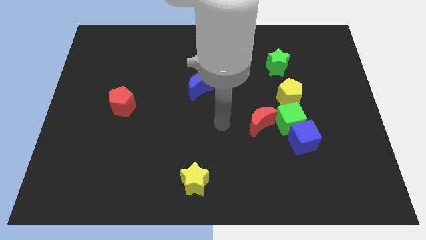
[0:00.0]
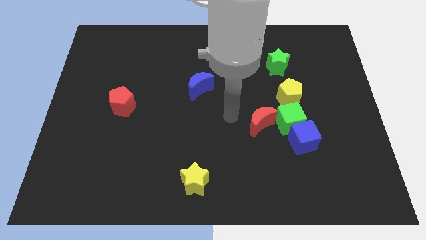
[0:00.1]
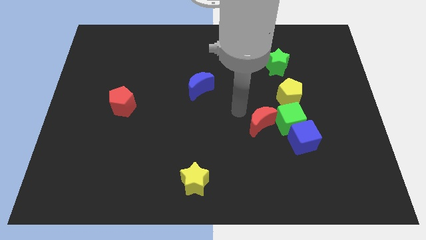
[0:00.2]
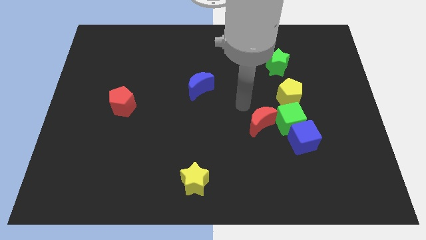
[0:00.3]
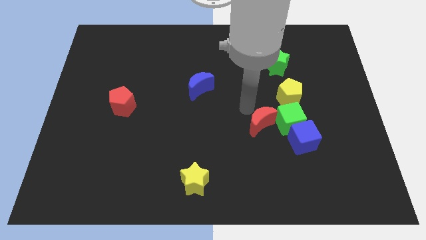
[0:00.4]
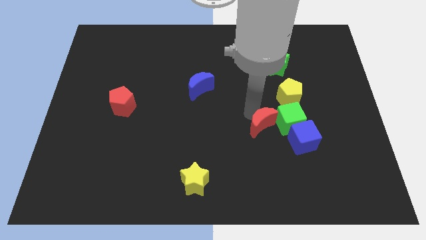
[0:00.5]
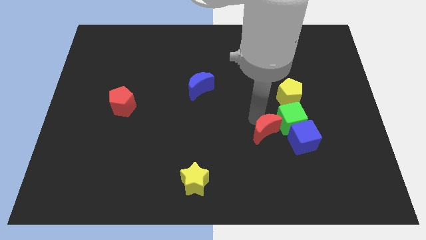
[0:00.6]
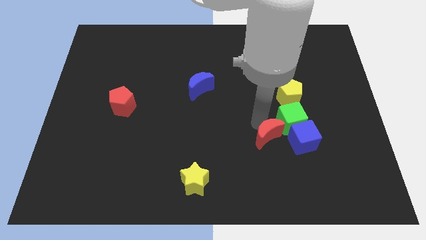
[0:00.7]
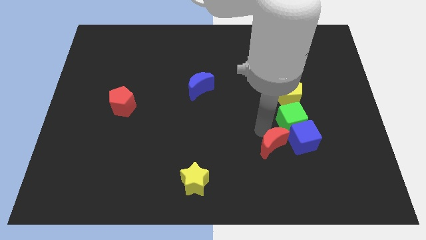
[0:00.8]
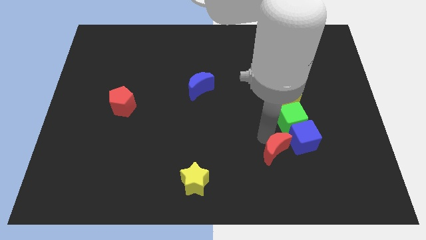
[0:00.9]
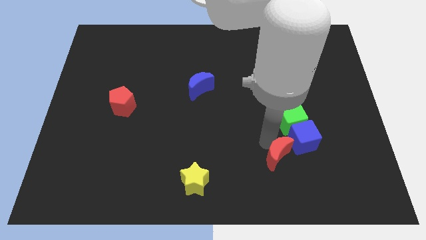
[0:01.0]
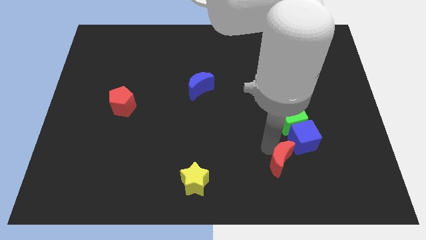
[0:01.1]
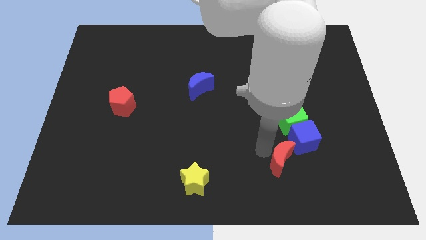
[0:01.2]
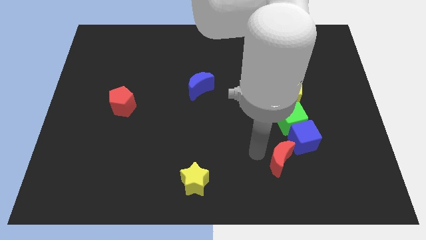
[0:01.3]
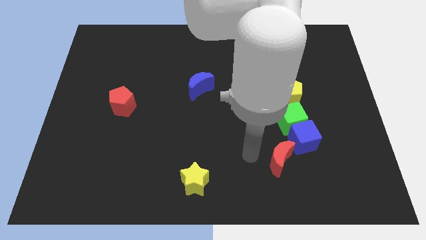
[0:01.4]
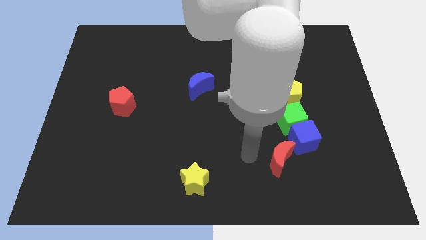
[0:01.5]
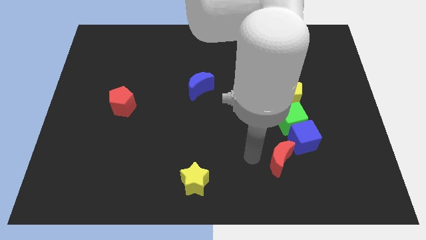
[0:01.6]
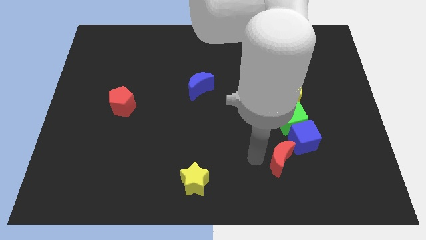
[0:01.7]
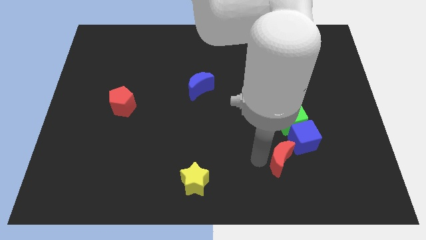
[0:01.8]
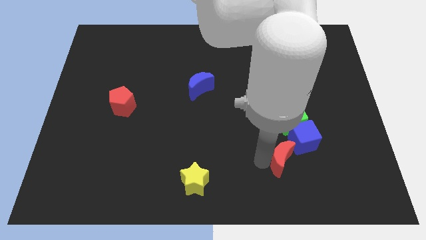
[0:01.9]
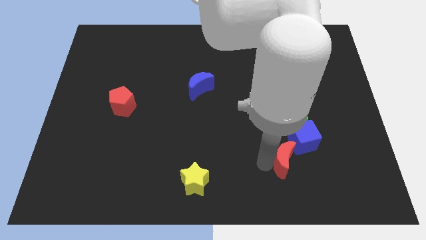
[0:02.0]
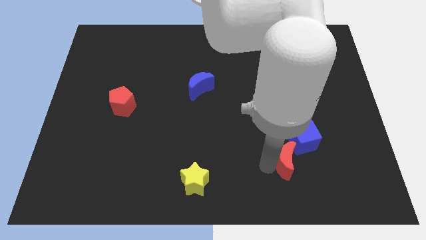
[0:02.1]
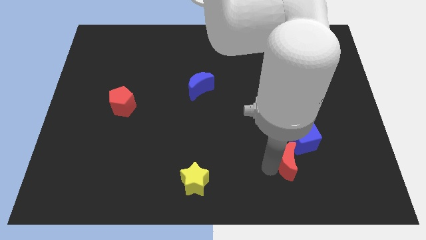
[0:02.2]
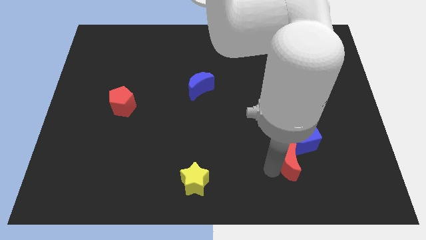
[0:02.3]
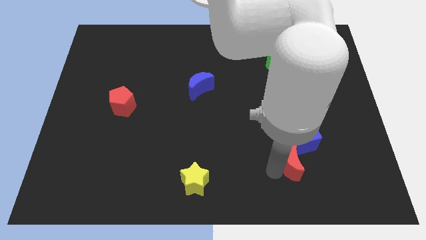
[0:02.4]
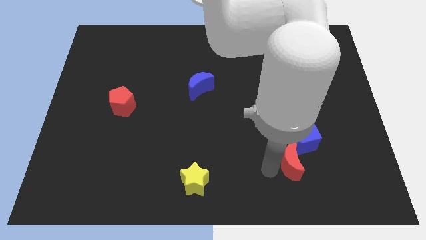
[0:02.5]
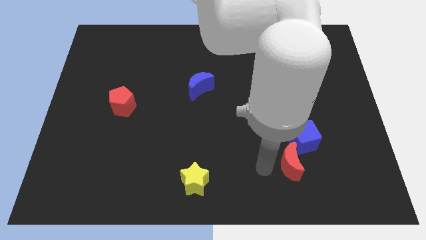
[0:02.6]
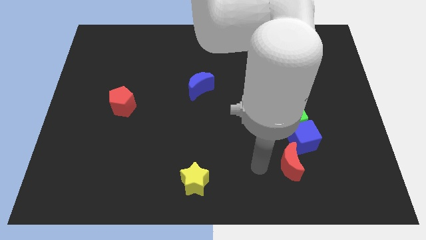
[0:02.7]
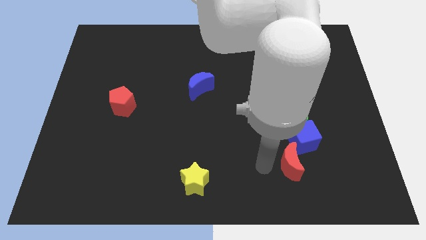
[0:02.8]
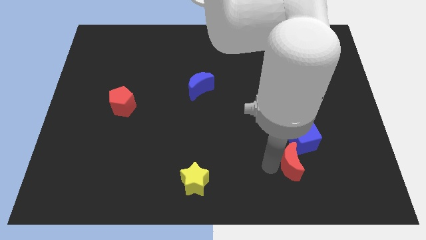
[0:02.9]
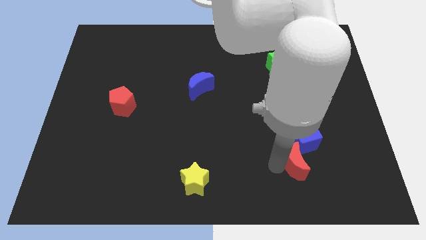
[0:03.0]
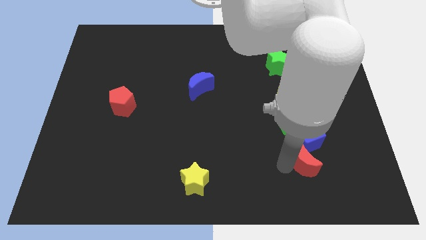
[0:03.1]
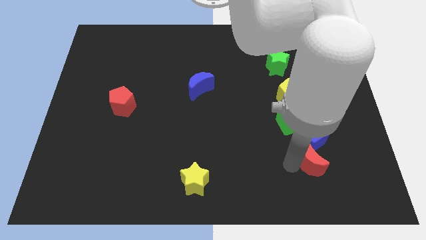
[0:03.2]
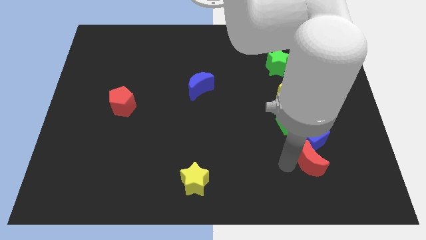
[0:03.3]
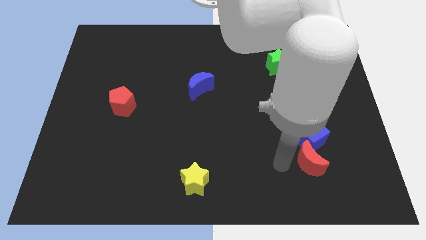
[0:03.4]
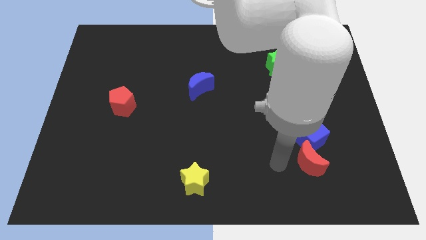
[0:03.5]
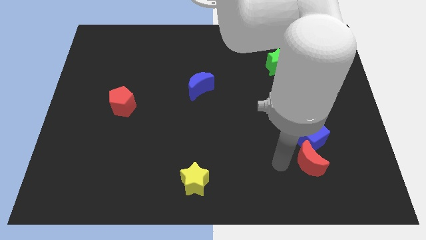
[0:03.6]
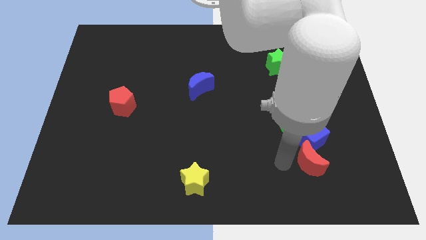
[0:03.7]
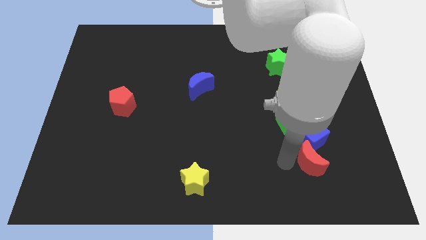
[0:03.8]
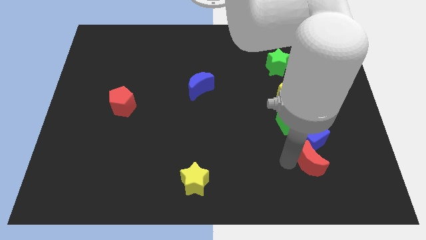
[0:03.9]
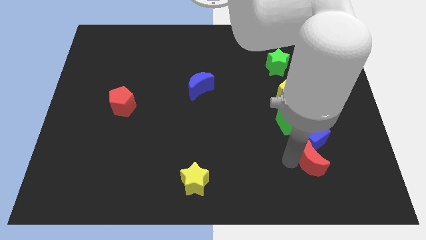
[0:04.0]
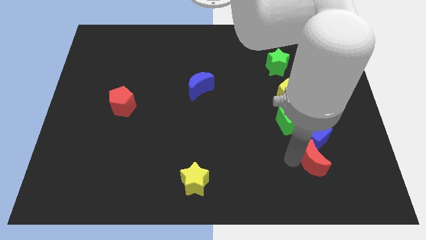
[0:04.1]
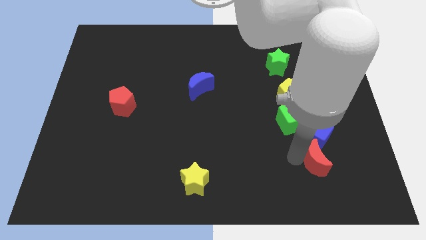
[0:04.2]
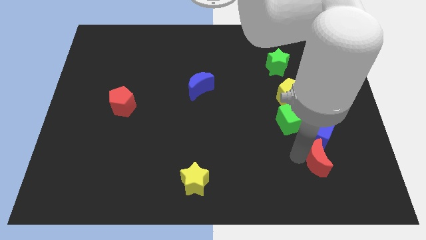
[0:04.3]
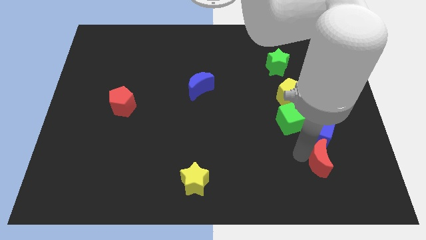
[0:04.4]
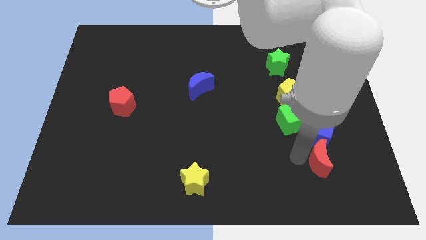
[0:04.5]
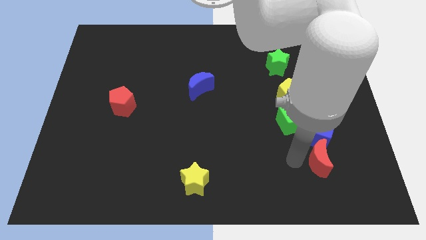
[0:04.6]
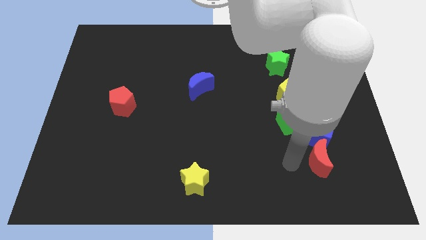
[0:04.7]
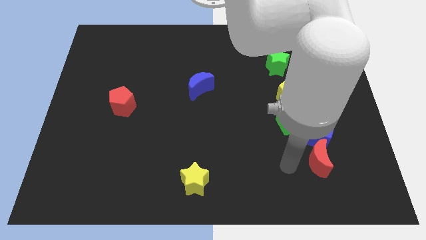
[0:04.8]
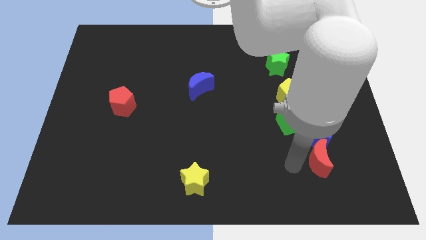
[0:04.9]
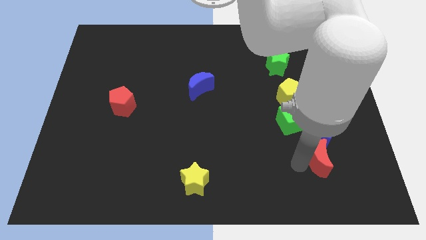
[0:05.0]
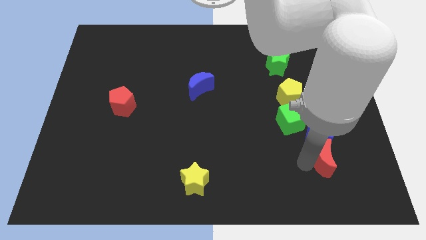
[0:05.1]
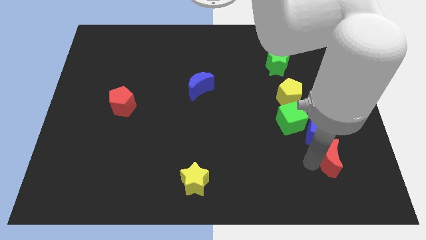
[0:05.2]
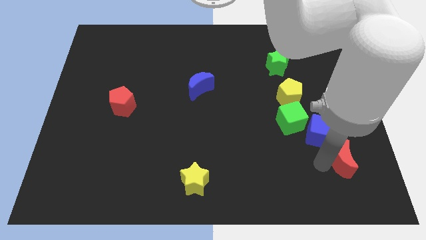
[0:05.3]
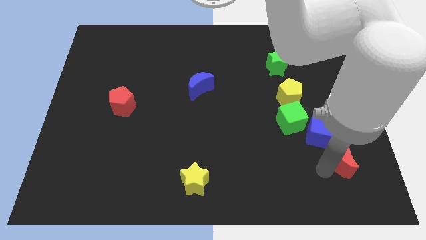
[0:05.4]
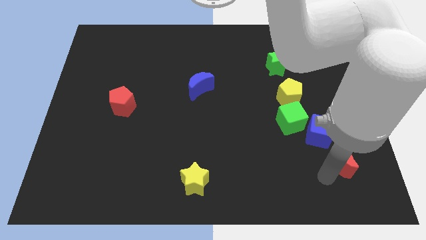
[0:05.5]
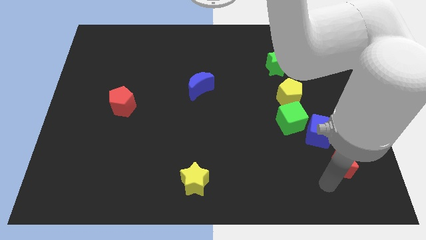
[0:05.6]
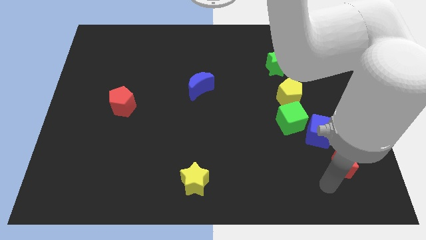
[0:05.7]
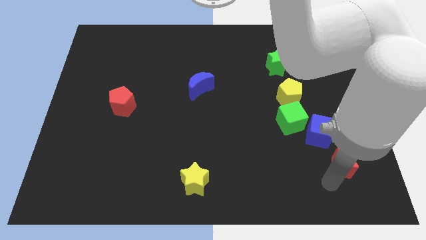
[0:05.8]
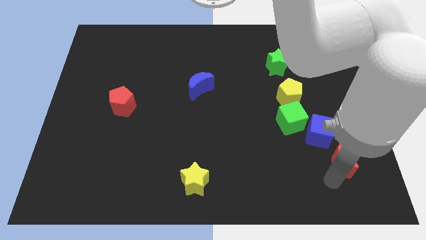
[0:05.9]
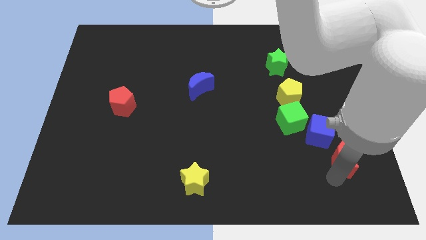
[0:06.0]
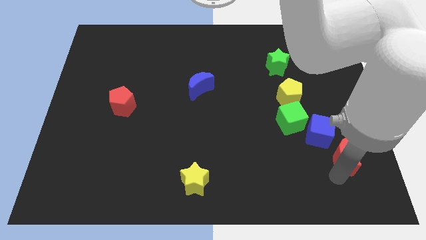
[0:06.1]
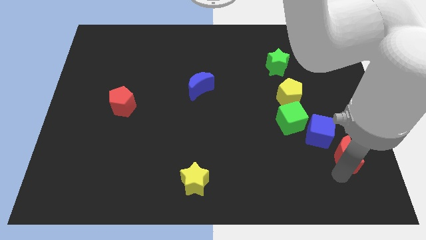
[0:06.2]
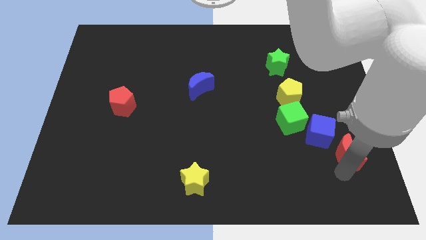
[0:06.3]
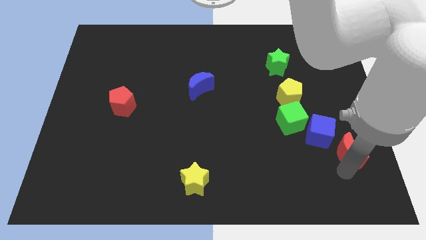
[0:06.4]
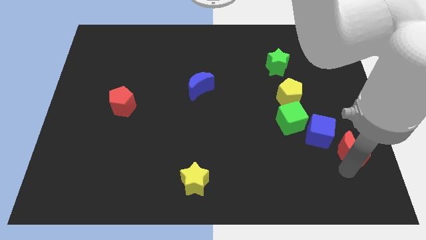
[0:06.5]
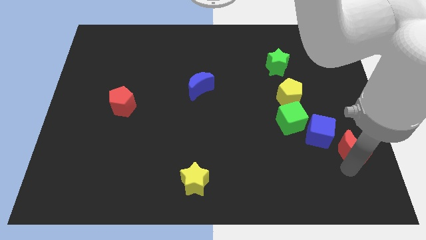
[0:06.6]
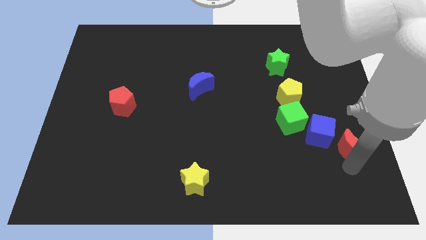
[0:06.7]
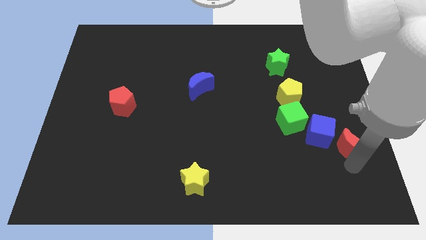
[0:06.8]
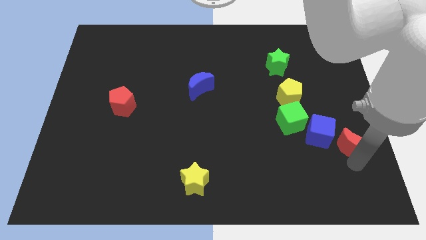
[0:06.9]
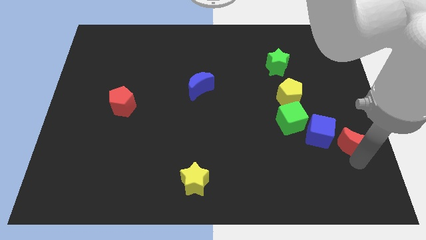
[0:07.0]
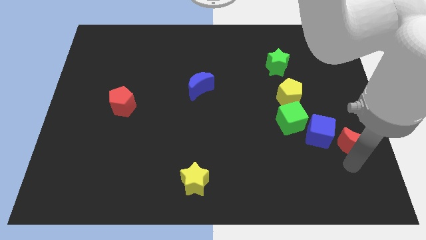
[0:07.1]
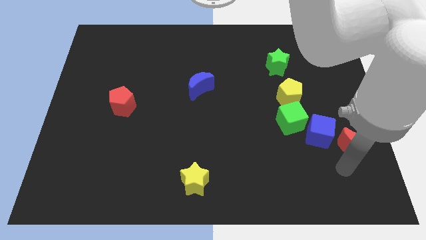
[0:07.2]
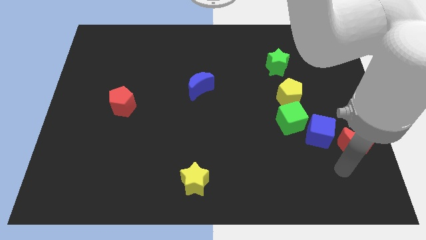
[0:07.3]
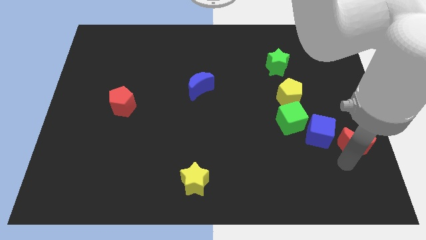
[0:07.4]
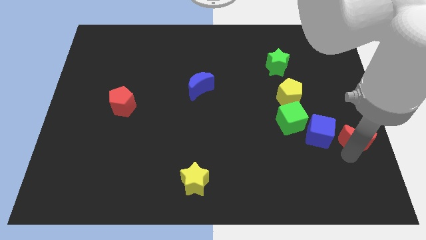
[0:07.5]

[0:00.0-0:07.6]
move the red moon to the right side
